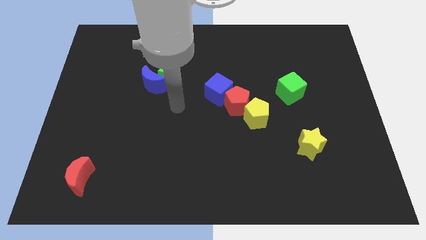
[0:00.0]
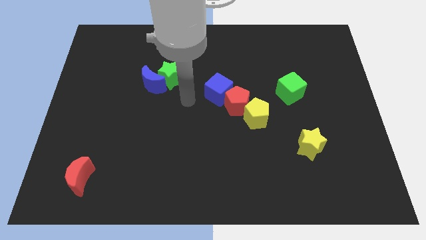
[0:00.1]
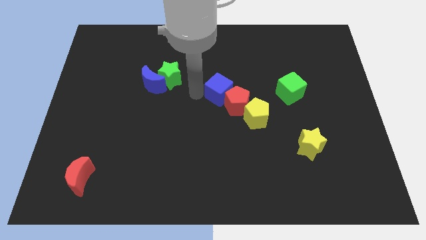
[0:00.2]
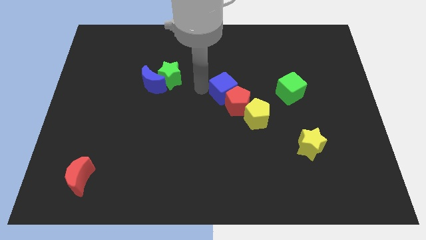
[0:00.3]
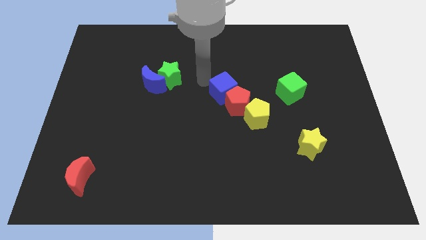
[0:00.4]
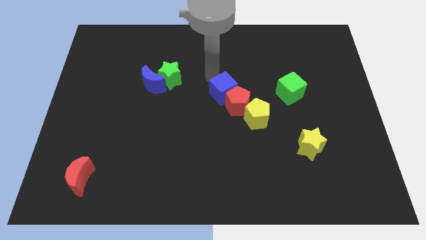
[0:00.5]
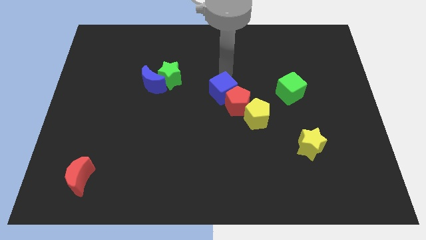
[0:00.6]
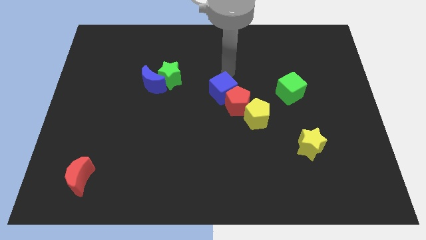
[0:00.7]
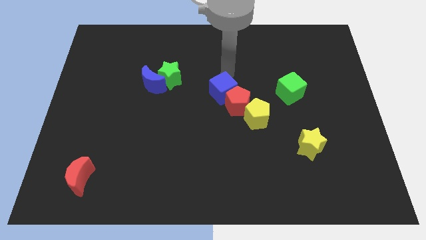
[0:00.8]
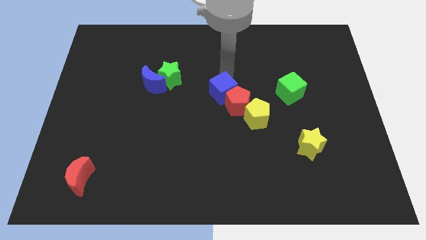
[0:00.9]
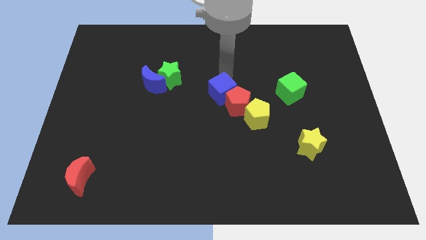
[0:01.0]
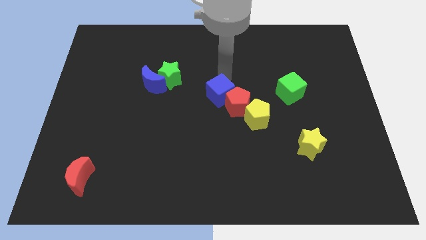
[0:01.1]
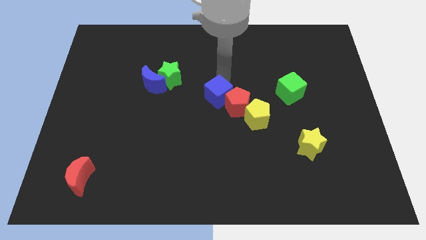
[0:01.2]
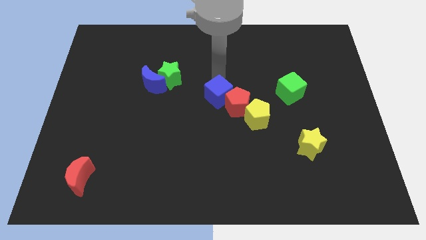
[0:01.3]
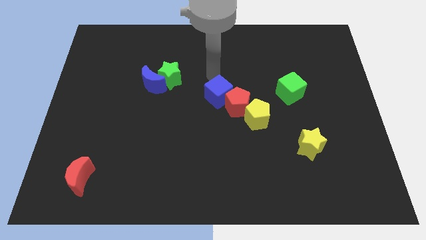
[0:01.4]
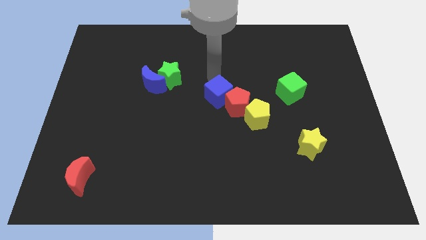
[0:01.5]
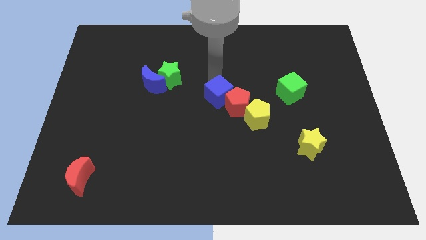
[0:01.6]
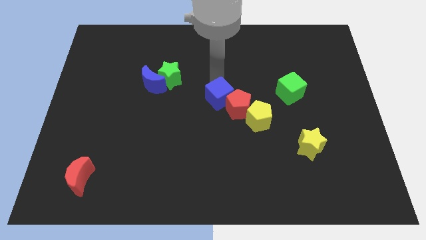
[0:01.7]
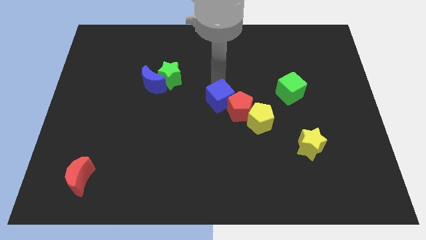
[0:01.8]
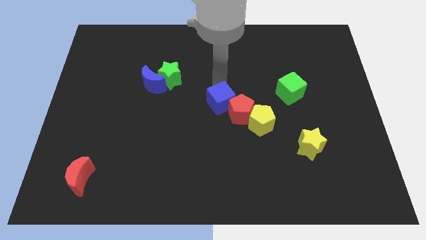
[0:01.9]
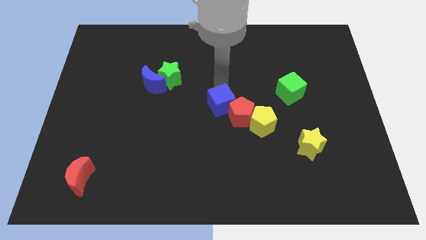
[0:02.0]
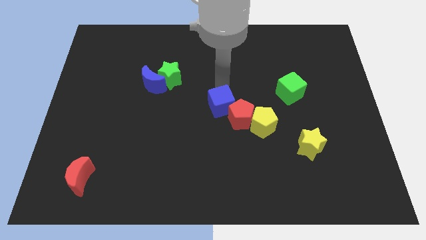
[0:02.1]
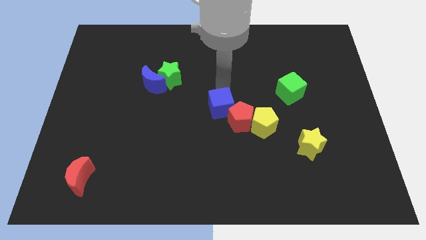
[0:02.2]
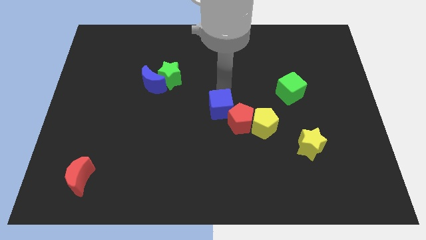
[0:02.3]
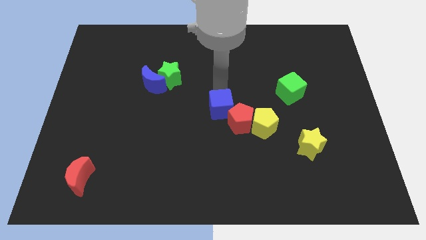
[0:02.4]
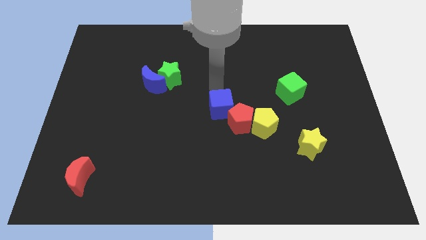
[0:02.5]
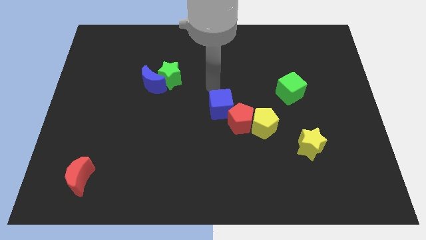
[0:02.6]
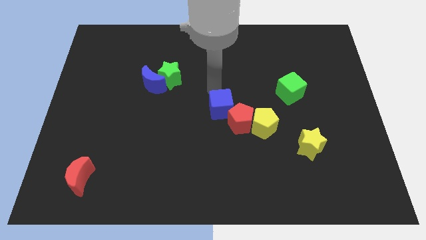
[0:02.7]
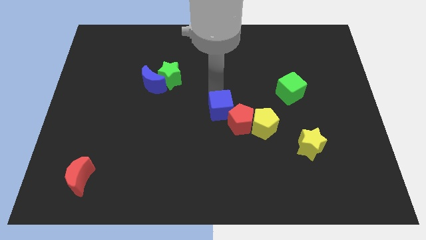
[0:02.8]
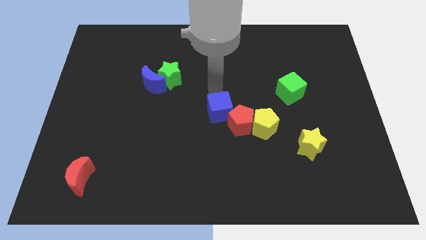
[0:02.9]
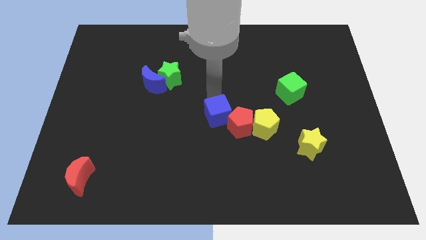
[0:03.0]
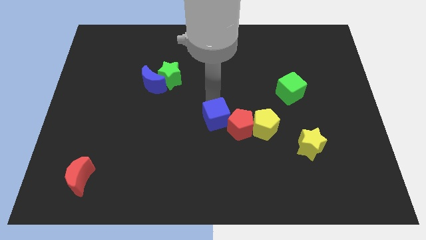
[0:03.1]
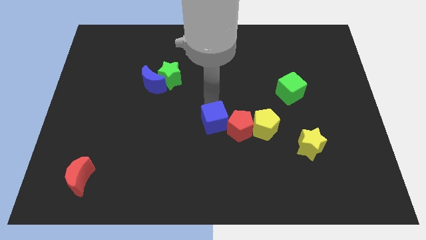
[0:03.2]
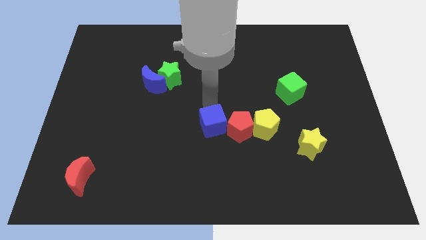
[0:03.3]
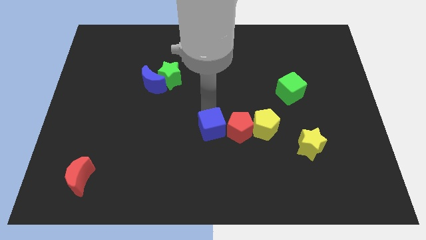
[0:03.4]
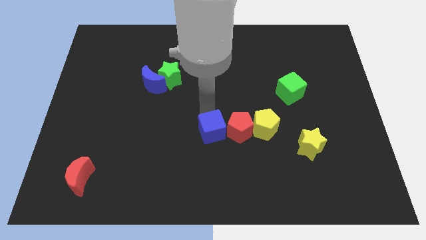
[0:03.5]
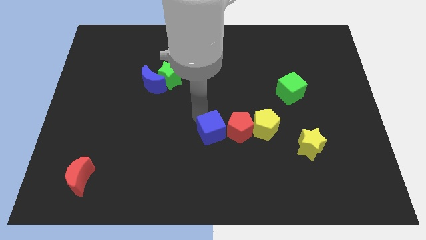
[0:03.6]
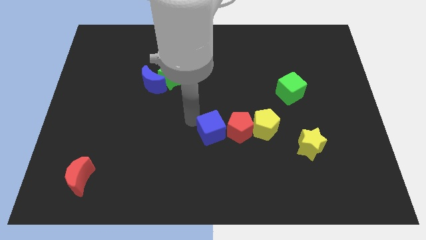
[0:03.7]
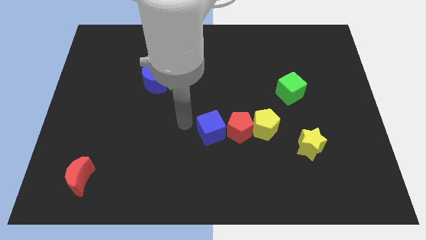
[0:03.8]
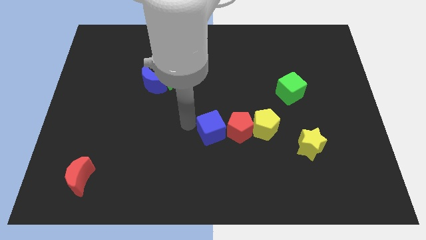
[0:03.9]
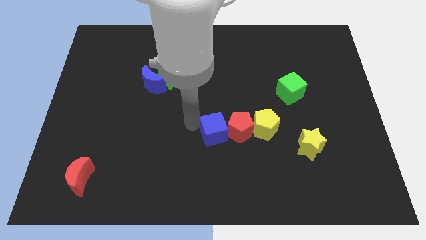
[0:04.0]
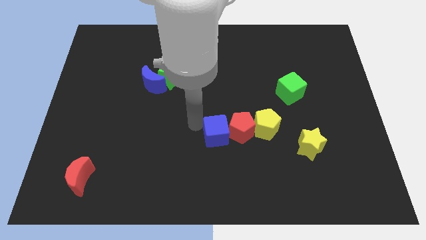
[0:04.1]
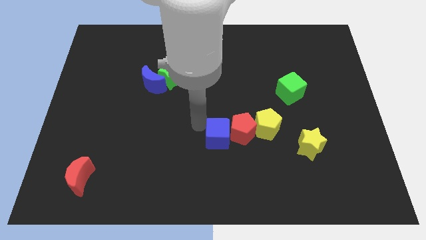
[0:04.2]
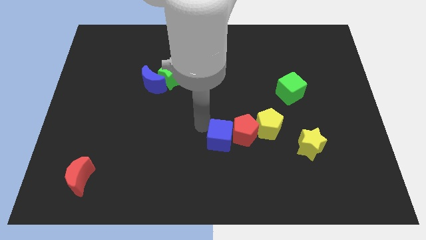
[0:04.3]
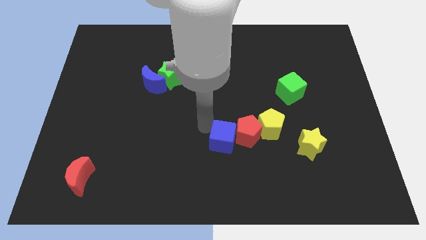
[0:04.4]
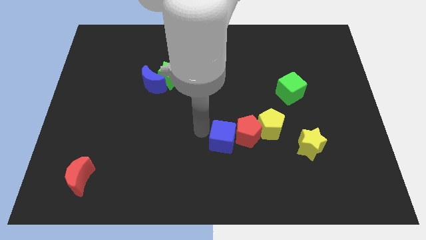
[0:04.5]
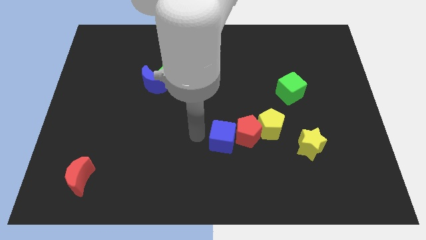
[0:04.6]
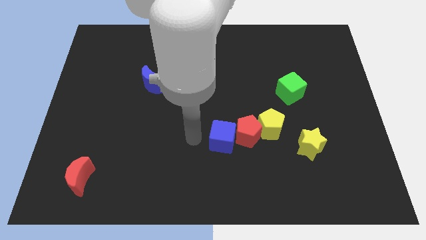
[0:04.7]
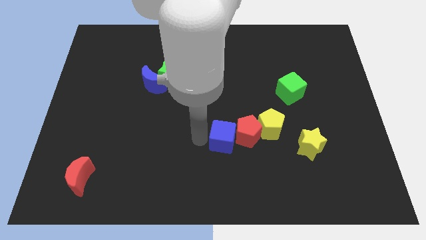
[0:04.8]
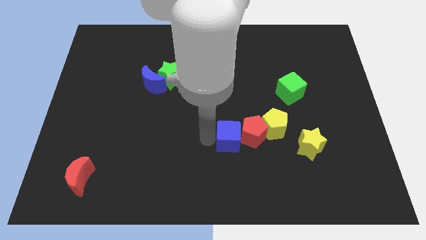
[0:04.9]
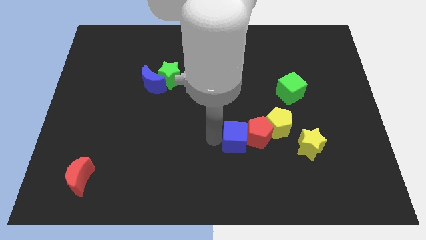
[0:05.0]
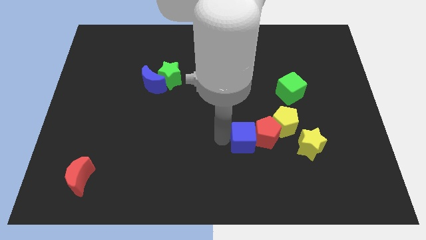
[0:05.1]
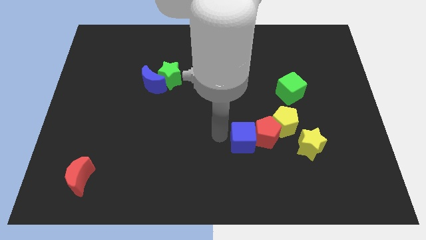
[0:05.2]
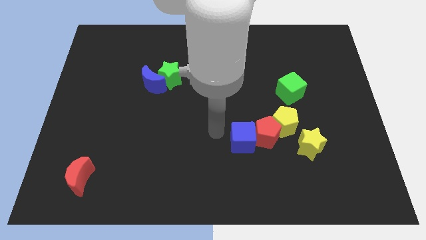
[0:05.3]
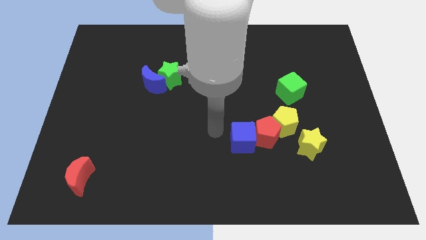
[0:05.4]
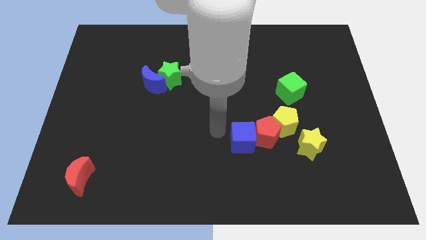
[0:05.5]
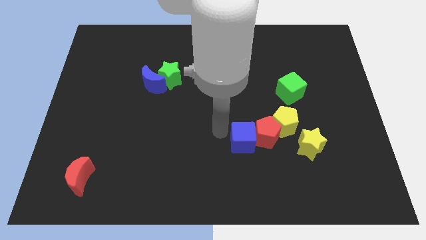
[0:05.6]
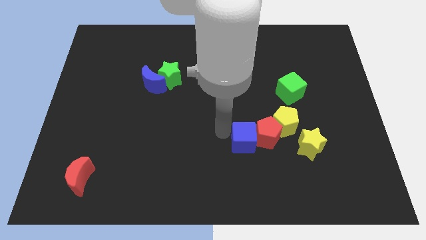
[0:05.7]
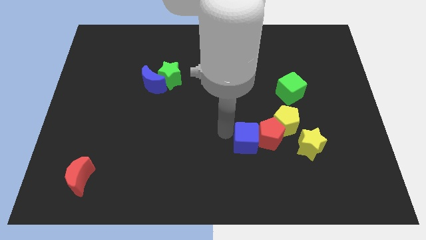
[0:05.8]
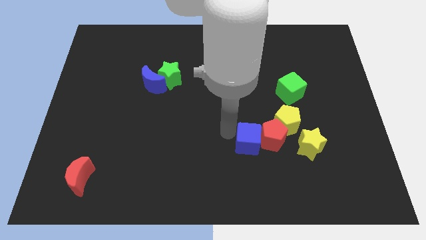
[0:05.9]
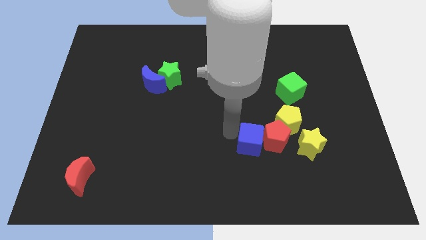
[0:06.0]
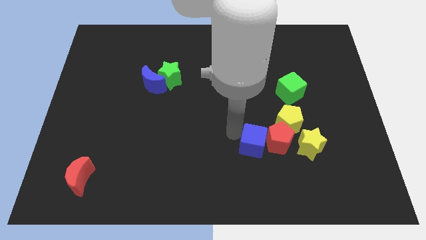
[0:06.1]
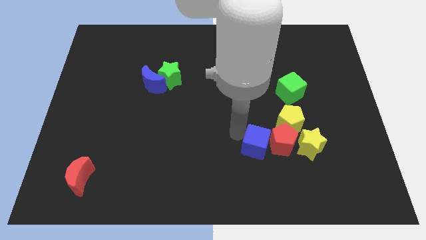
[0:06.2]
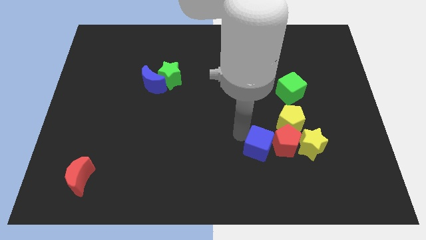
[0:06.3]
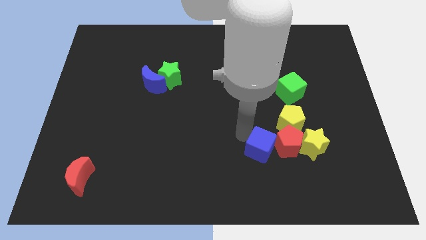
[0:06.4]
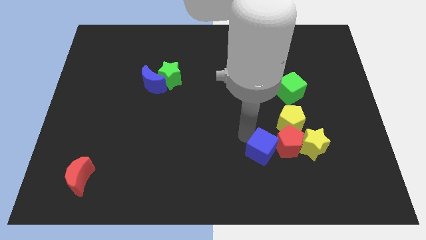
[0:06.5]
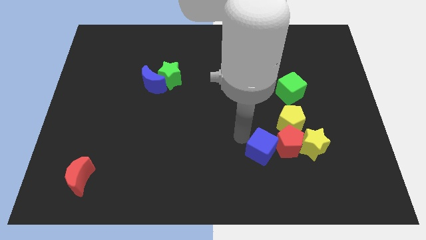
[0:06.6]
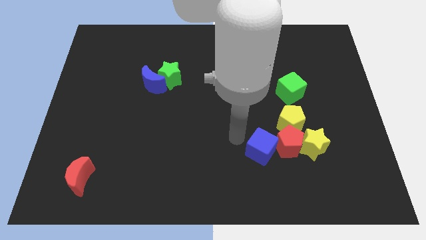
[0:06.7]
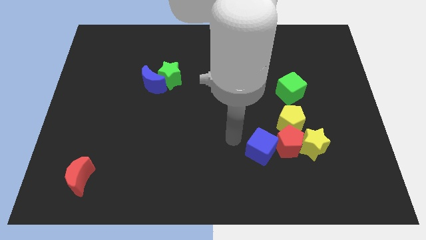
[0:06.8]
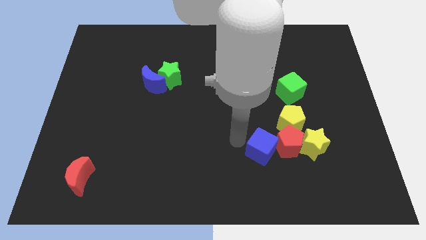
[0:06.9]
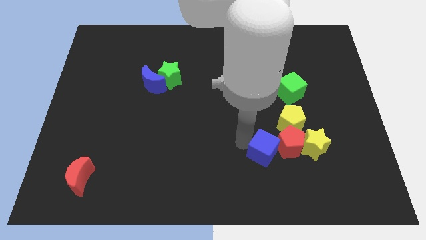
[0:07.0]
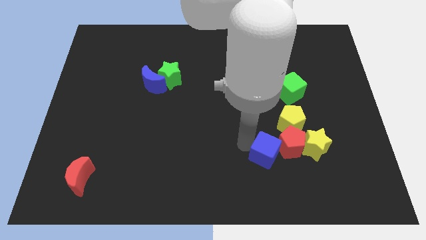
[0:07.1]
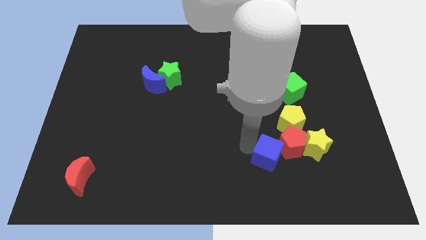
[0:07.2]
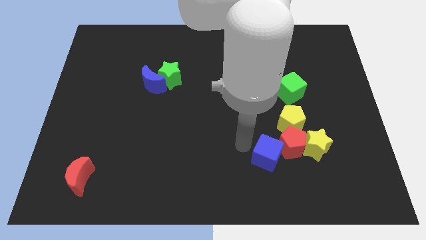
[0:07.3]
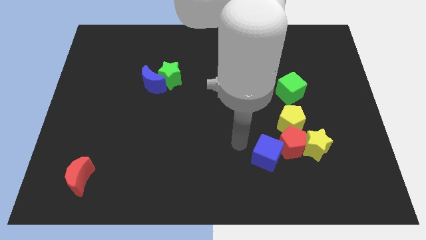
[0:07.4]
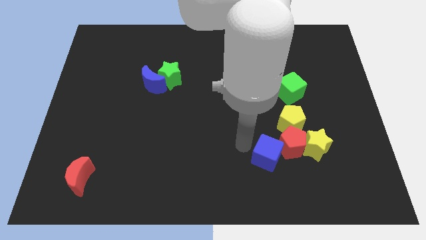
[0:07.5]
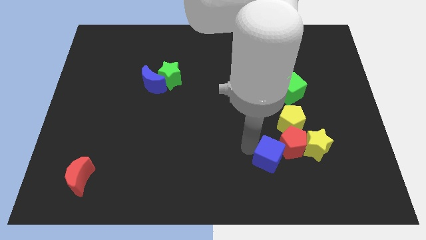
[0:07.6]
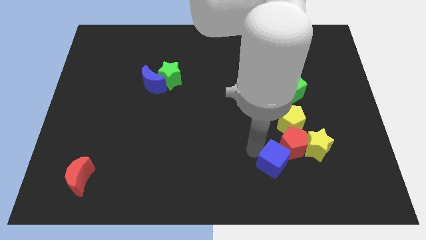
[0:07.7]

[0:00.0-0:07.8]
move the blue cube down and then to the right
